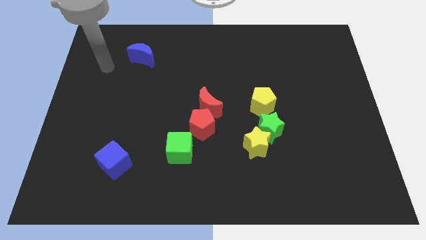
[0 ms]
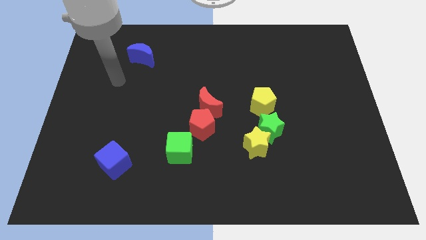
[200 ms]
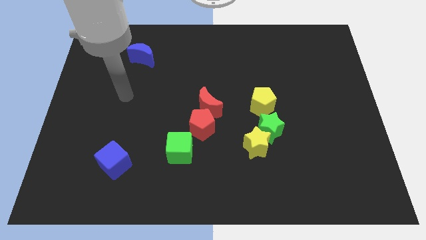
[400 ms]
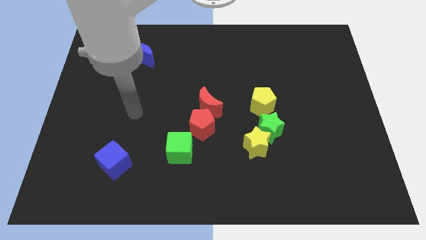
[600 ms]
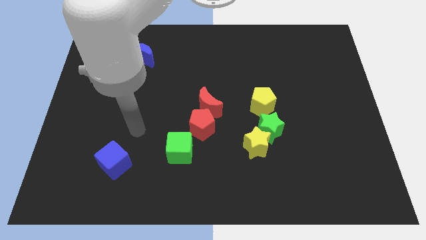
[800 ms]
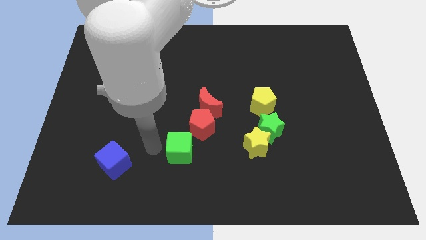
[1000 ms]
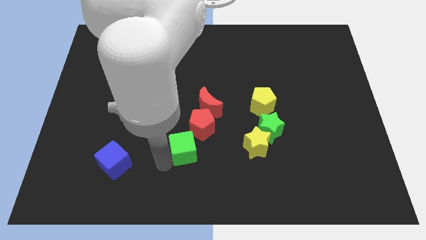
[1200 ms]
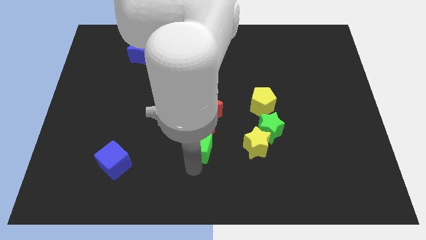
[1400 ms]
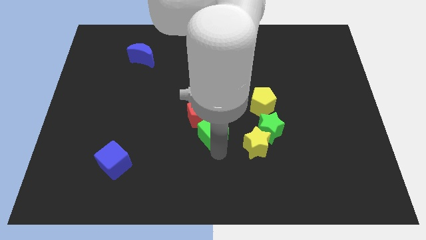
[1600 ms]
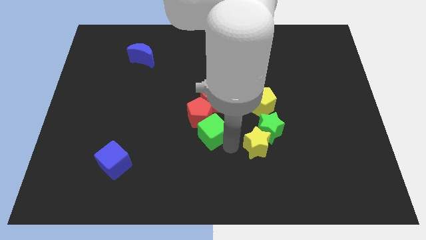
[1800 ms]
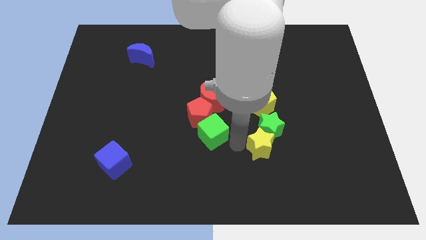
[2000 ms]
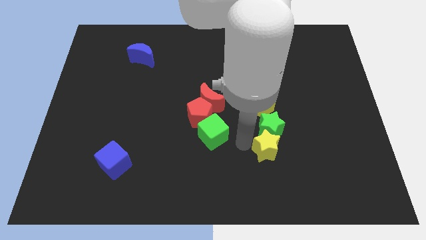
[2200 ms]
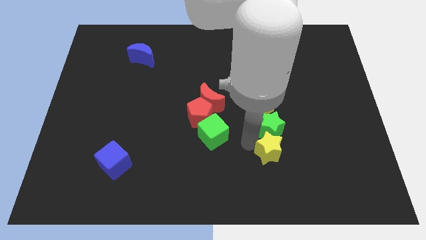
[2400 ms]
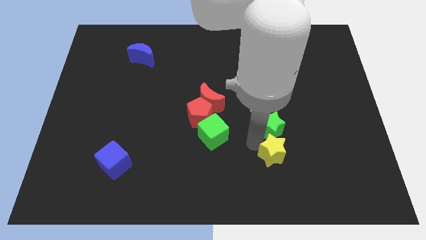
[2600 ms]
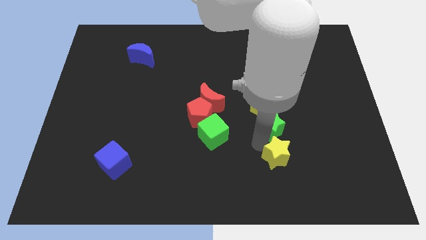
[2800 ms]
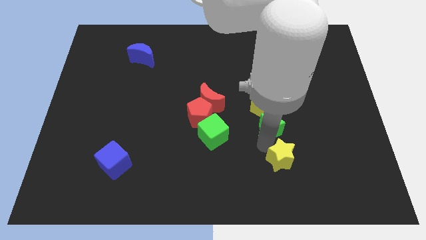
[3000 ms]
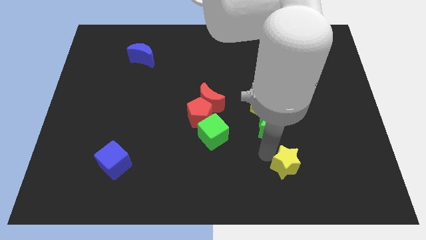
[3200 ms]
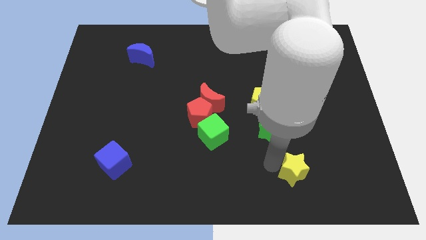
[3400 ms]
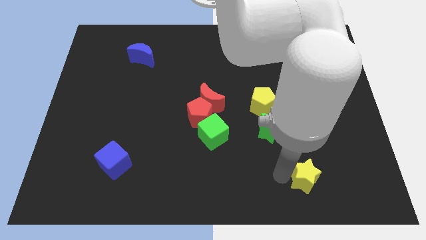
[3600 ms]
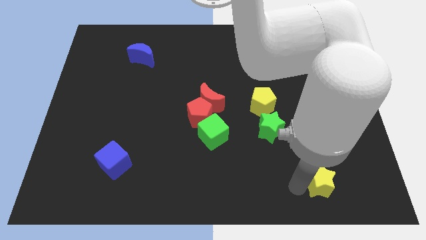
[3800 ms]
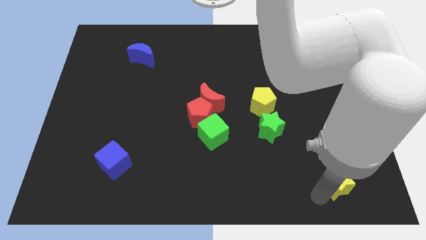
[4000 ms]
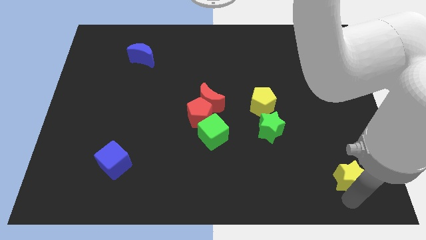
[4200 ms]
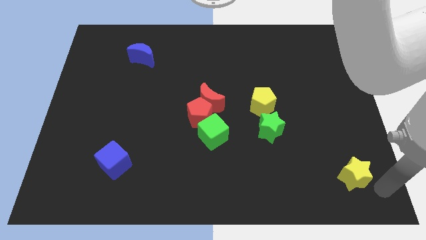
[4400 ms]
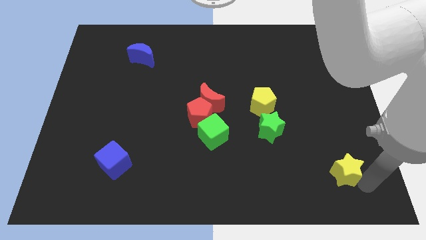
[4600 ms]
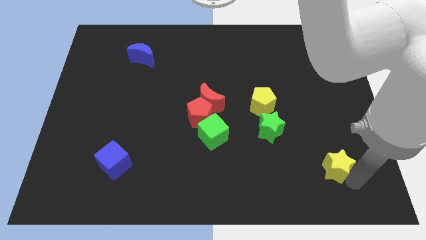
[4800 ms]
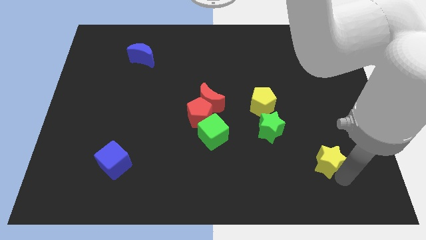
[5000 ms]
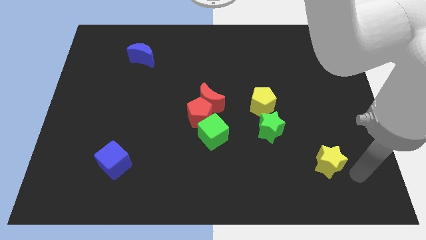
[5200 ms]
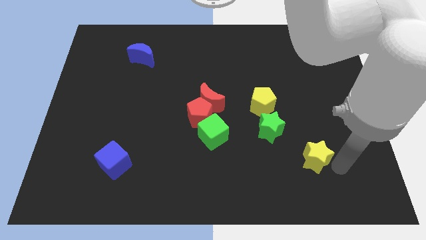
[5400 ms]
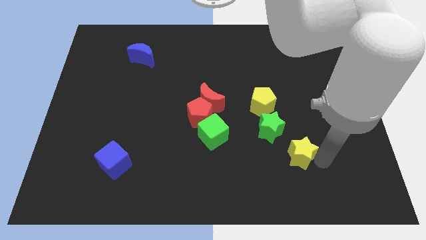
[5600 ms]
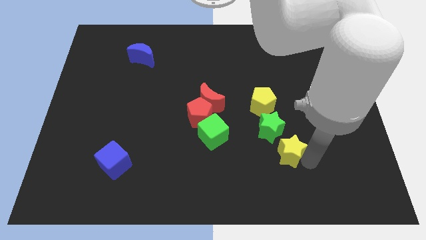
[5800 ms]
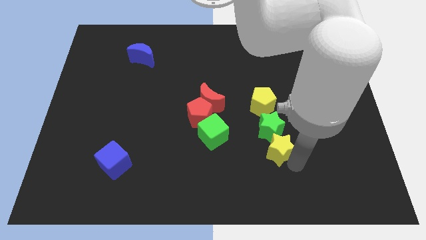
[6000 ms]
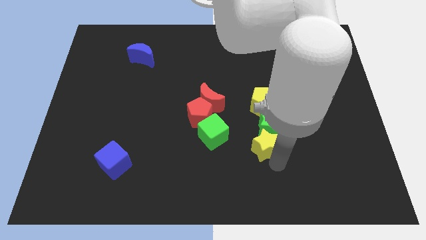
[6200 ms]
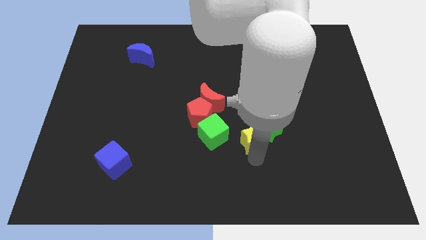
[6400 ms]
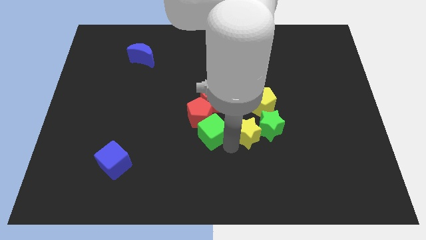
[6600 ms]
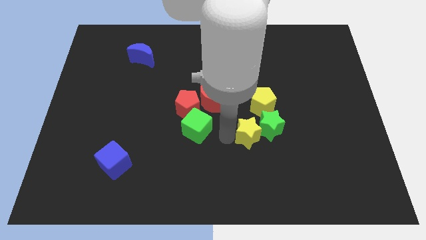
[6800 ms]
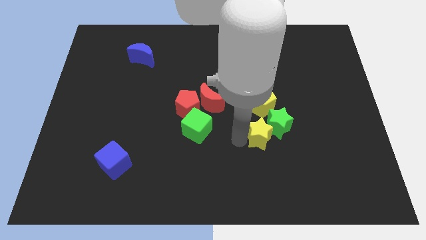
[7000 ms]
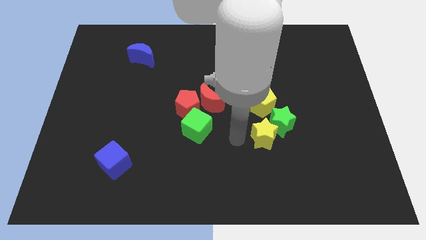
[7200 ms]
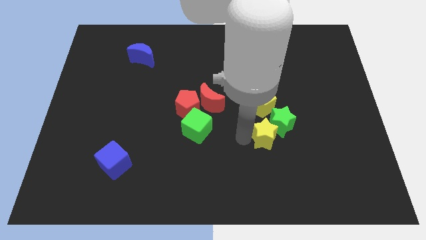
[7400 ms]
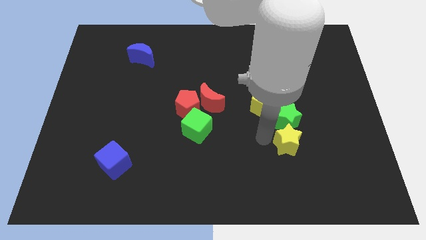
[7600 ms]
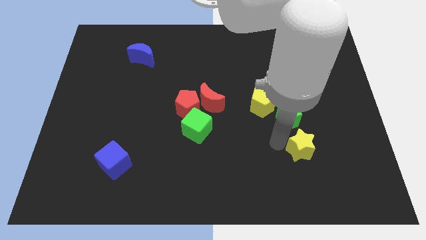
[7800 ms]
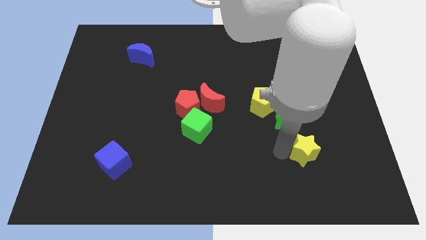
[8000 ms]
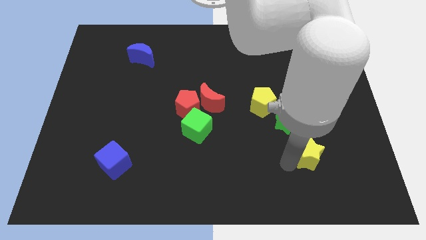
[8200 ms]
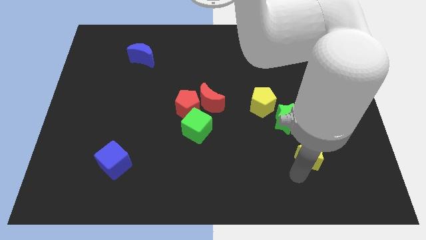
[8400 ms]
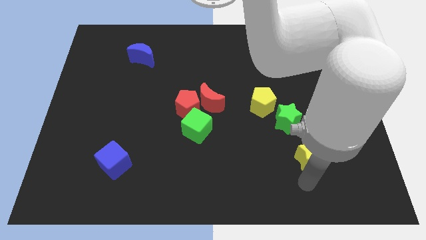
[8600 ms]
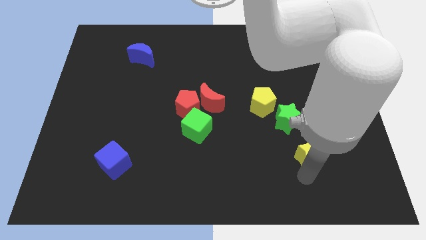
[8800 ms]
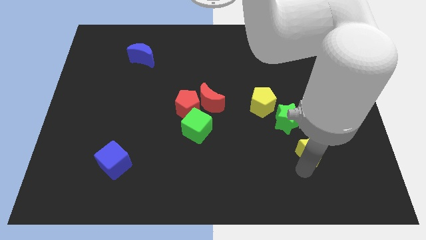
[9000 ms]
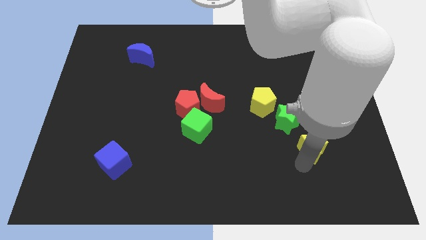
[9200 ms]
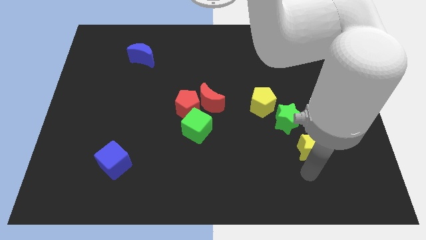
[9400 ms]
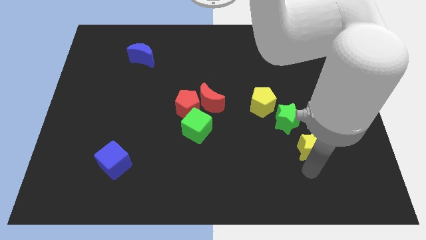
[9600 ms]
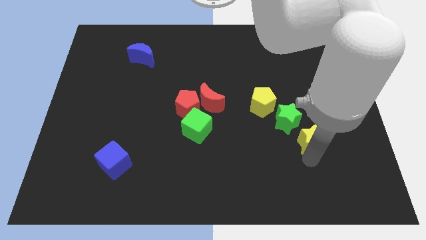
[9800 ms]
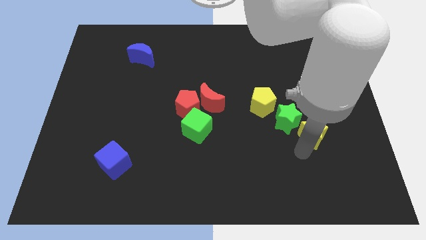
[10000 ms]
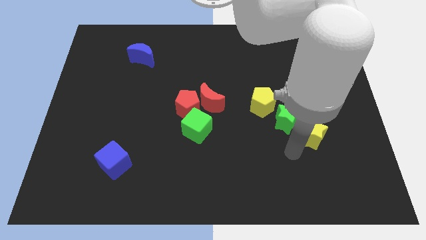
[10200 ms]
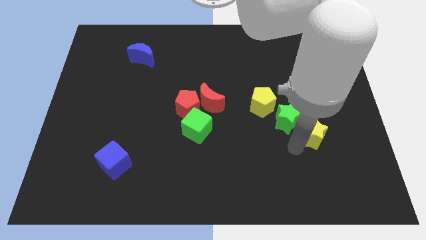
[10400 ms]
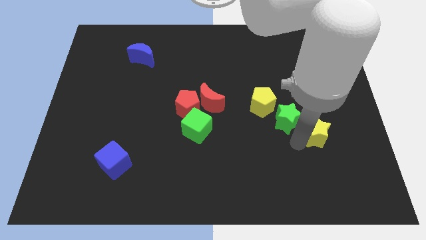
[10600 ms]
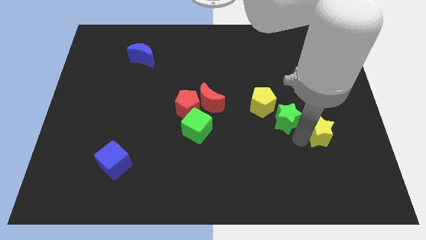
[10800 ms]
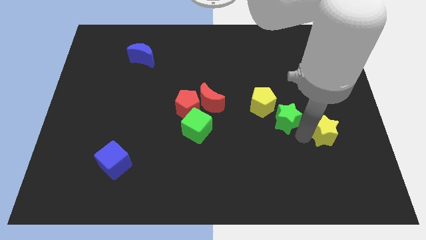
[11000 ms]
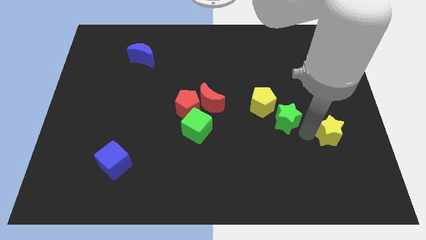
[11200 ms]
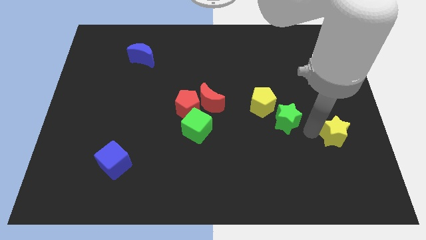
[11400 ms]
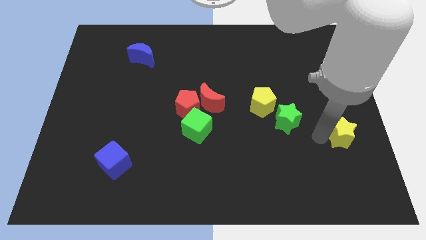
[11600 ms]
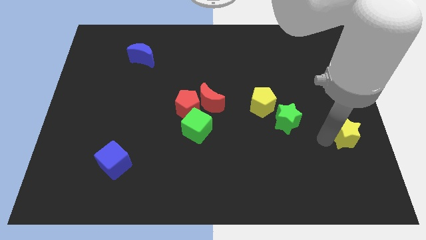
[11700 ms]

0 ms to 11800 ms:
slide the yellow star to the right side
